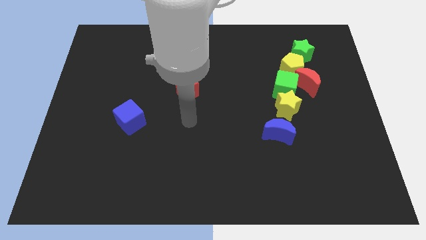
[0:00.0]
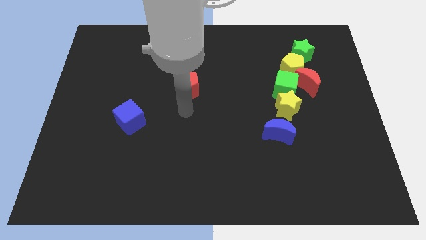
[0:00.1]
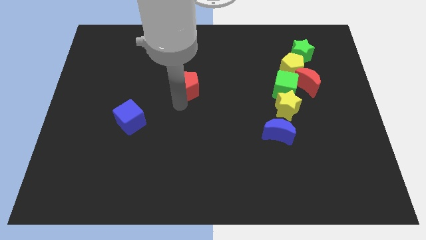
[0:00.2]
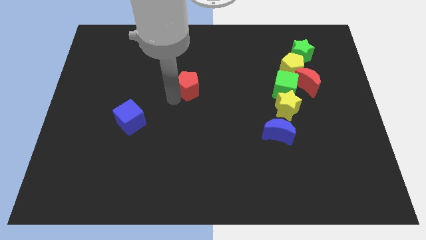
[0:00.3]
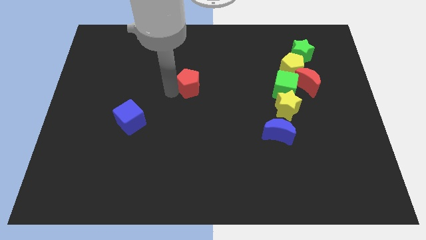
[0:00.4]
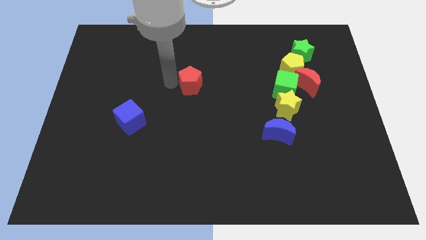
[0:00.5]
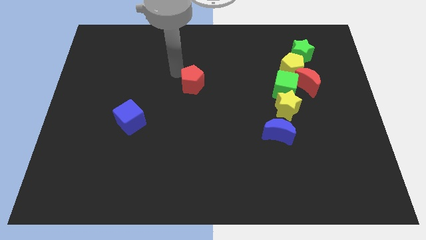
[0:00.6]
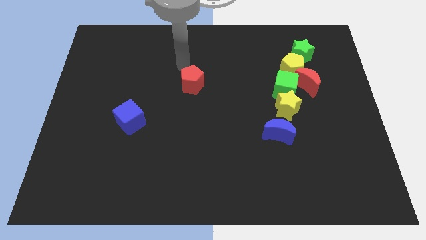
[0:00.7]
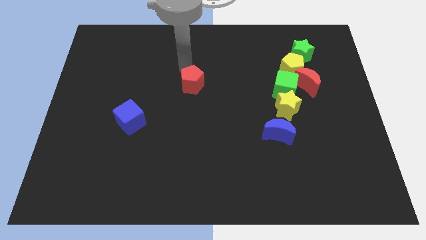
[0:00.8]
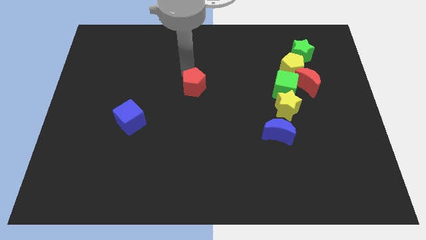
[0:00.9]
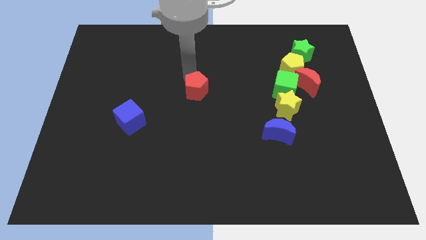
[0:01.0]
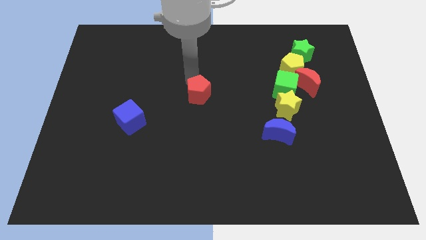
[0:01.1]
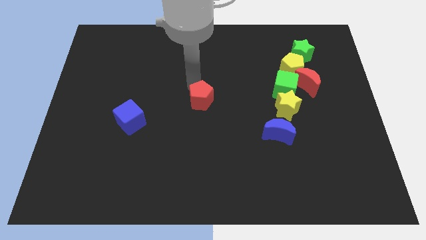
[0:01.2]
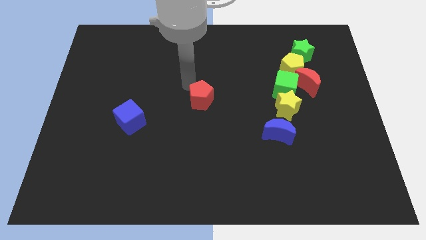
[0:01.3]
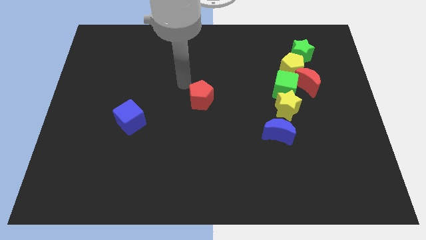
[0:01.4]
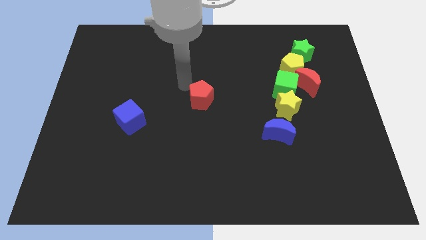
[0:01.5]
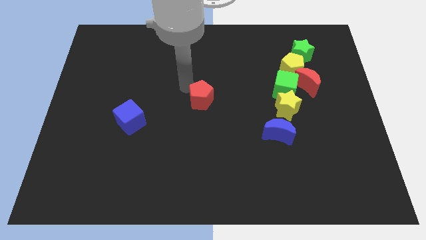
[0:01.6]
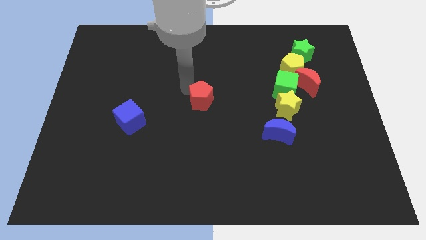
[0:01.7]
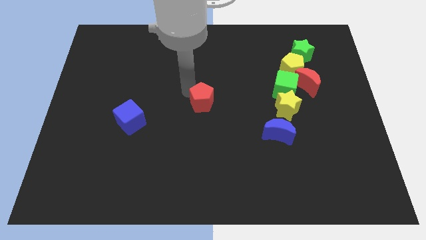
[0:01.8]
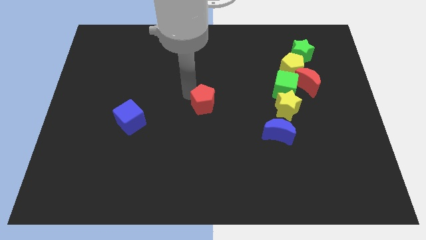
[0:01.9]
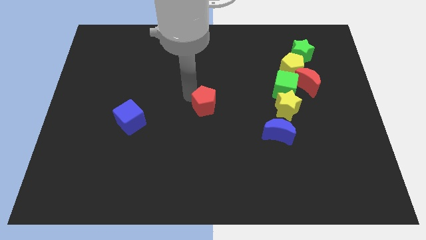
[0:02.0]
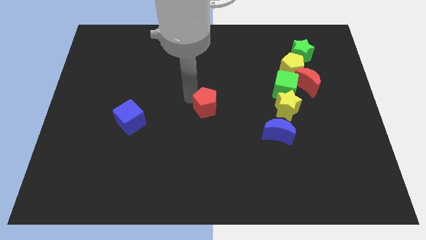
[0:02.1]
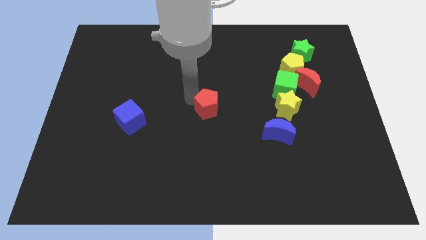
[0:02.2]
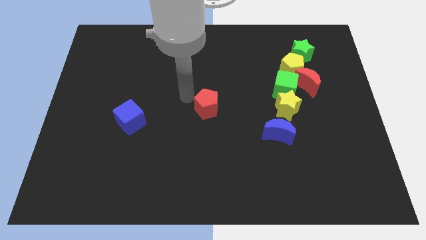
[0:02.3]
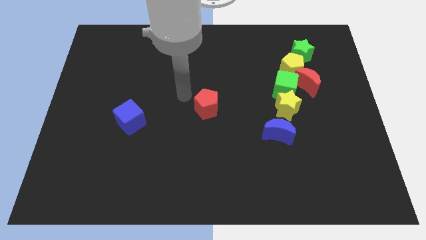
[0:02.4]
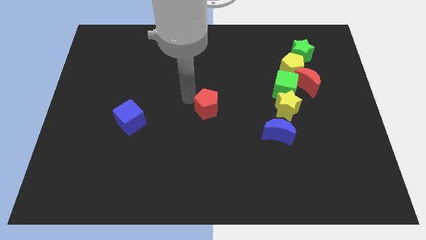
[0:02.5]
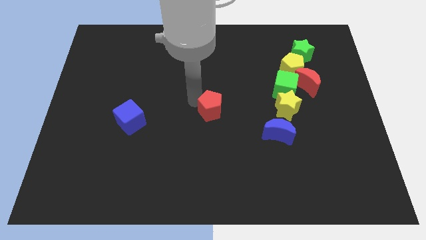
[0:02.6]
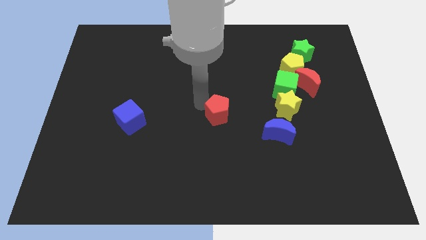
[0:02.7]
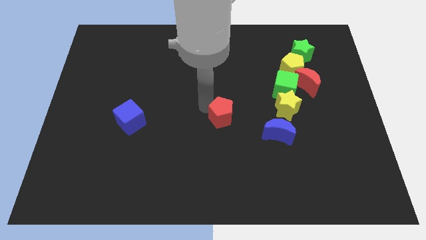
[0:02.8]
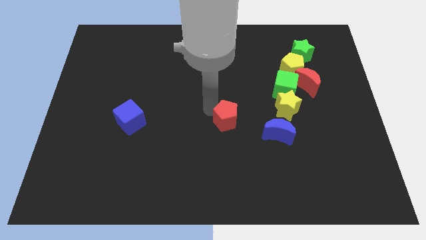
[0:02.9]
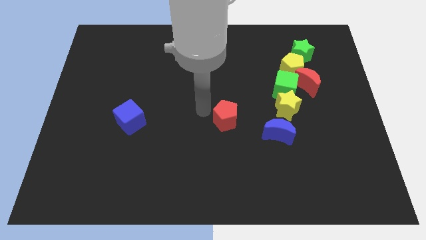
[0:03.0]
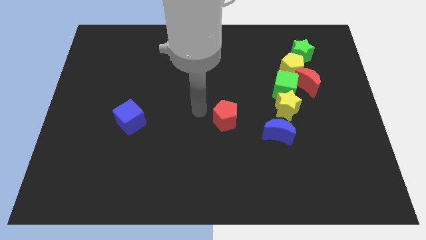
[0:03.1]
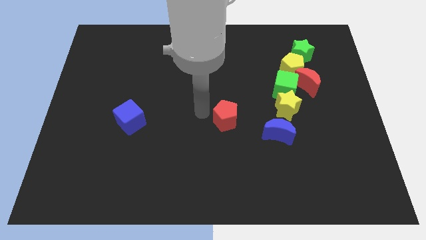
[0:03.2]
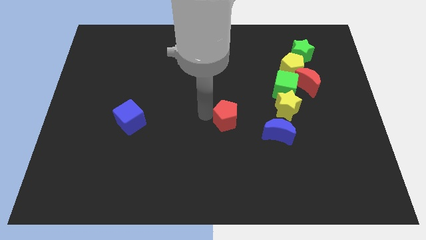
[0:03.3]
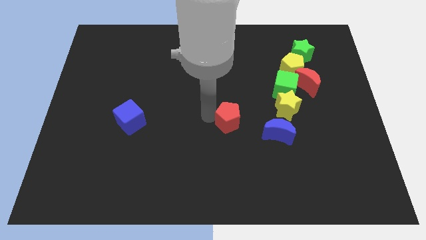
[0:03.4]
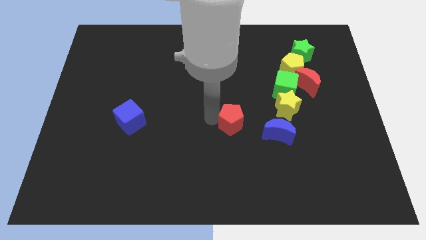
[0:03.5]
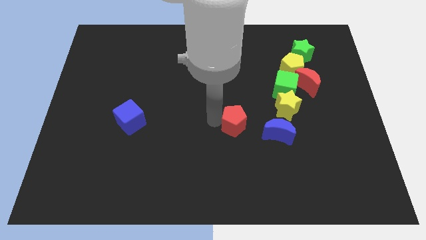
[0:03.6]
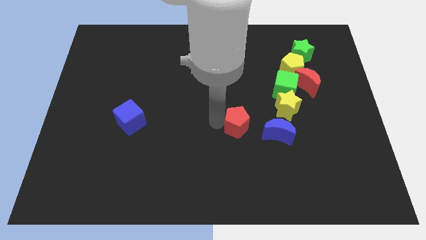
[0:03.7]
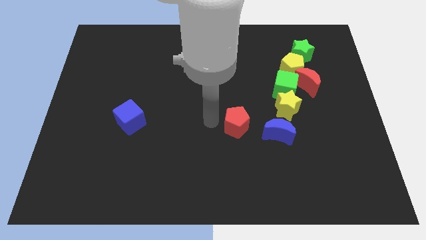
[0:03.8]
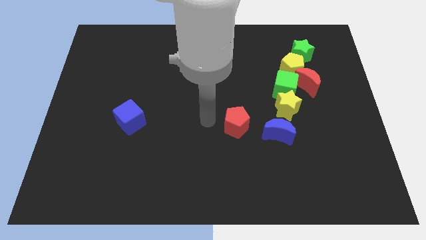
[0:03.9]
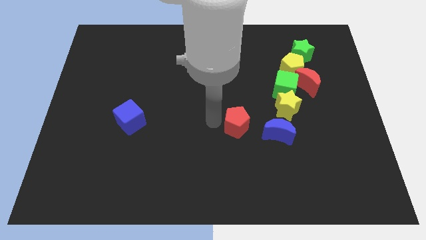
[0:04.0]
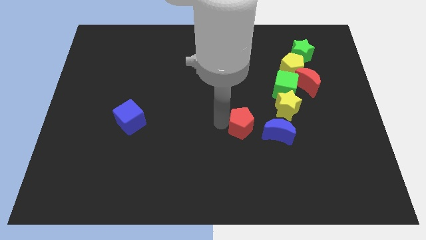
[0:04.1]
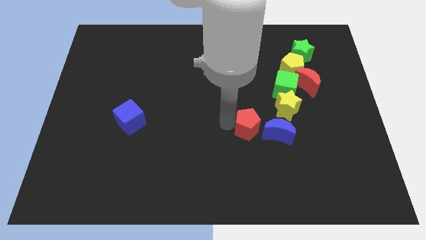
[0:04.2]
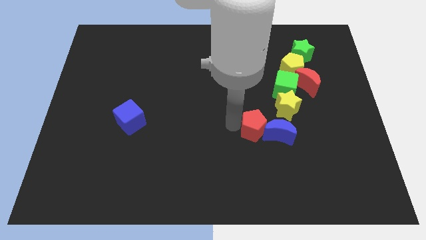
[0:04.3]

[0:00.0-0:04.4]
move the red pentagon next to the blue moon

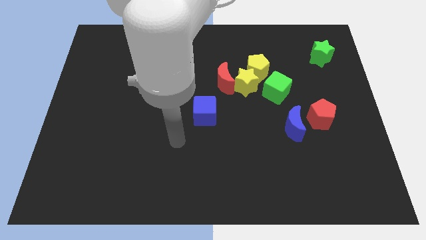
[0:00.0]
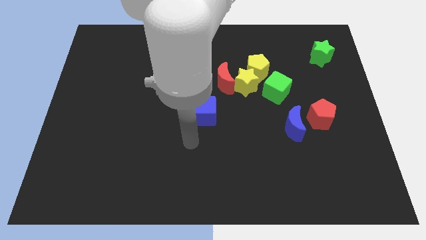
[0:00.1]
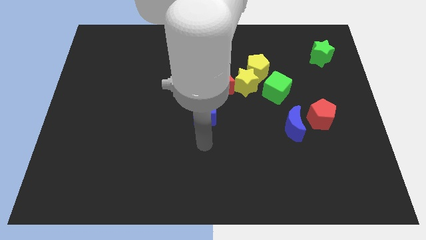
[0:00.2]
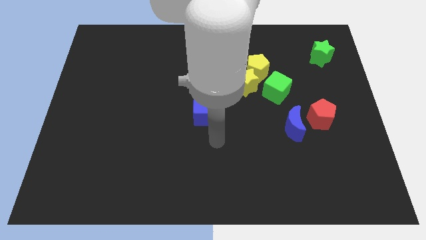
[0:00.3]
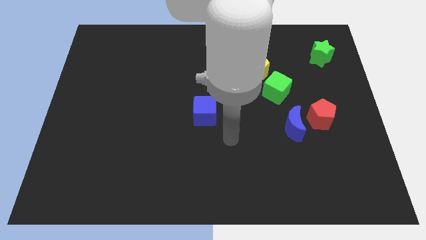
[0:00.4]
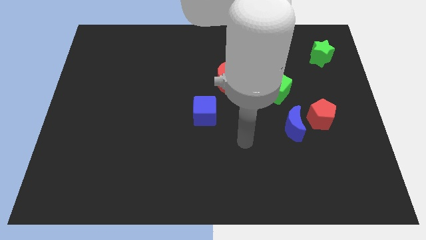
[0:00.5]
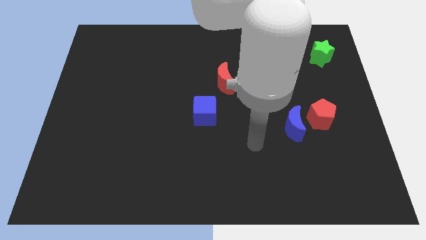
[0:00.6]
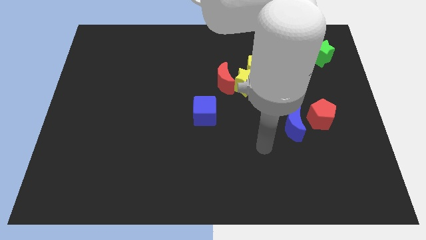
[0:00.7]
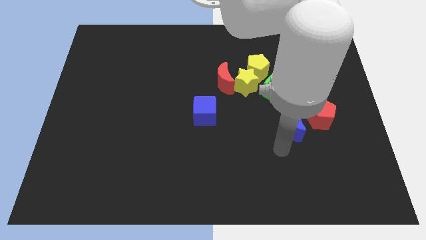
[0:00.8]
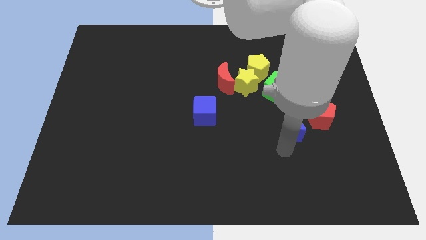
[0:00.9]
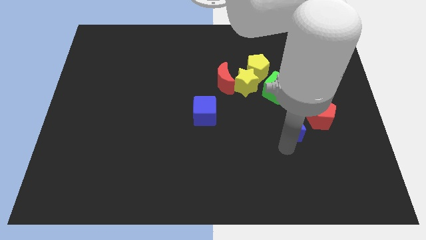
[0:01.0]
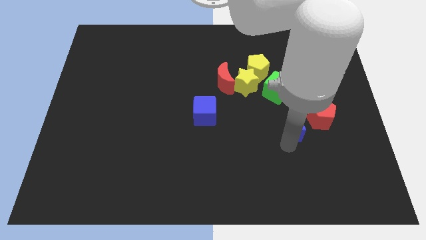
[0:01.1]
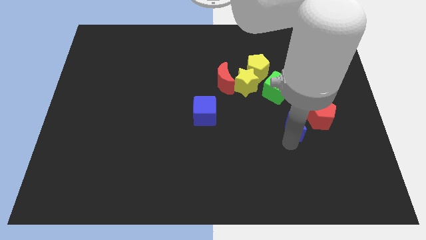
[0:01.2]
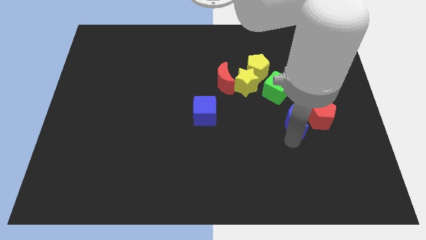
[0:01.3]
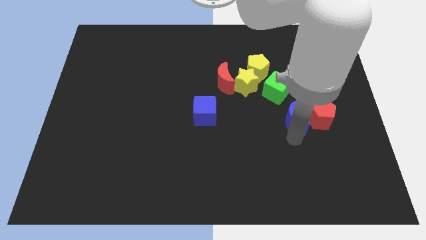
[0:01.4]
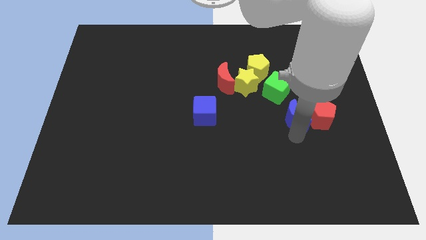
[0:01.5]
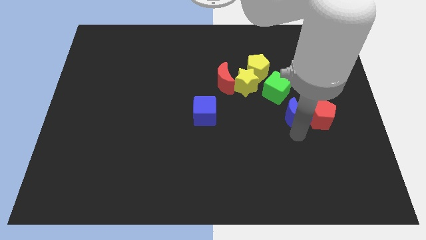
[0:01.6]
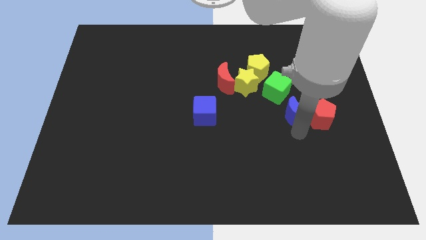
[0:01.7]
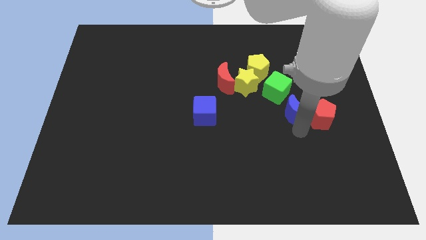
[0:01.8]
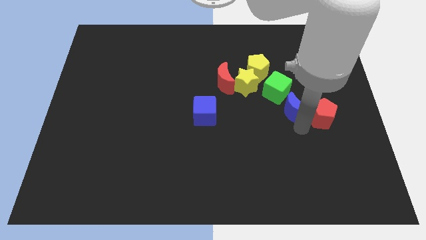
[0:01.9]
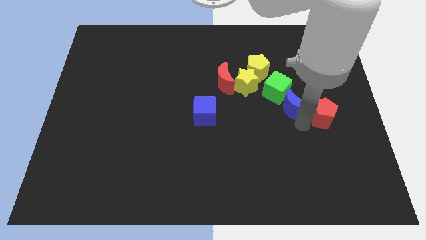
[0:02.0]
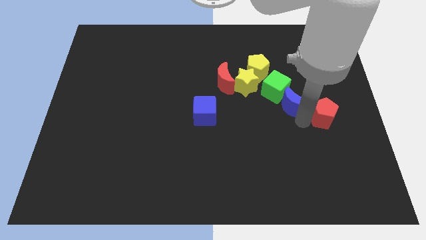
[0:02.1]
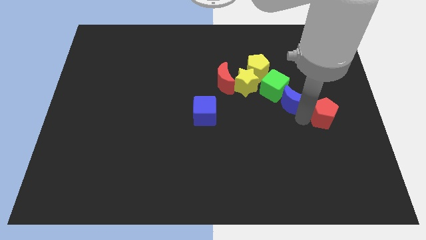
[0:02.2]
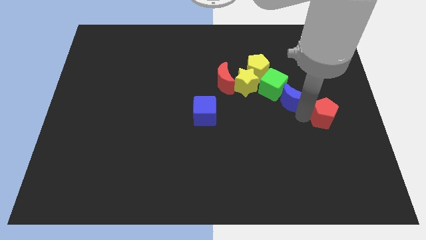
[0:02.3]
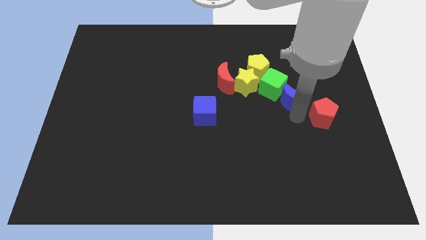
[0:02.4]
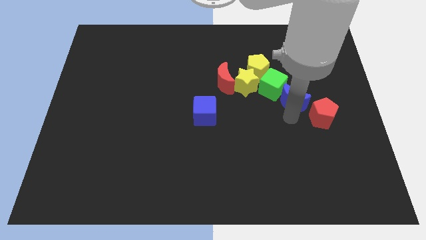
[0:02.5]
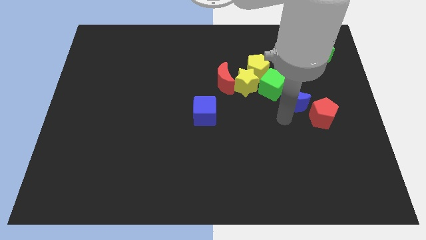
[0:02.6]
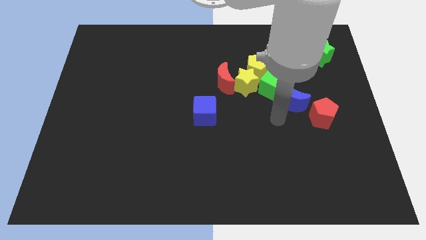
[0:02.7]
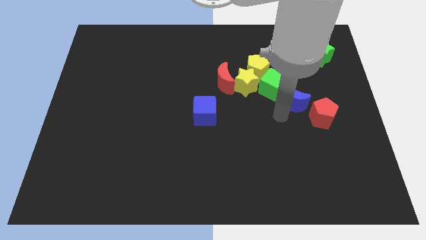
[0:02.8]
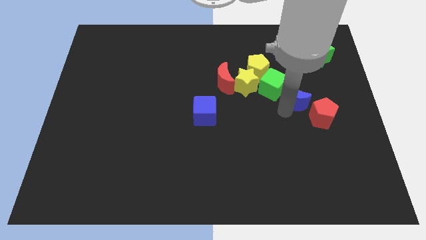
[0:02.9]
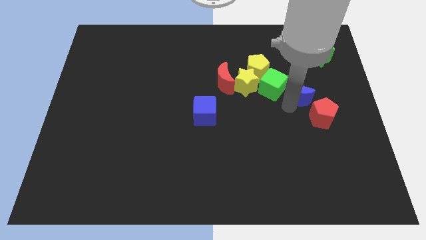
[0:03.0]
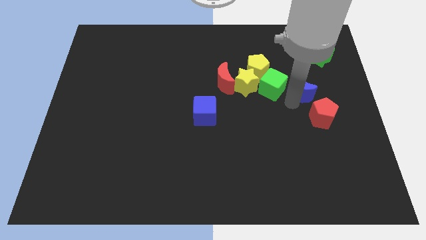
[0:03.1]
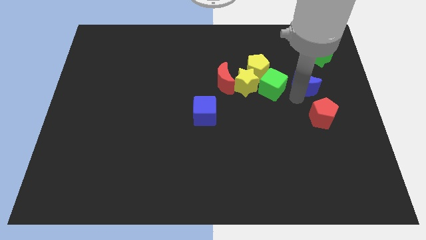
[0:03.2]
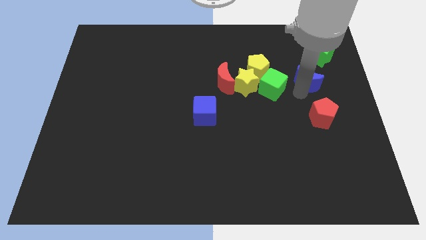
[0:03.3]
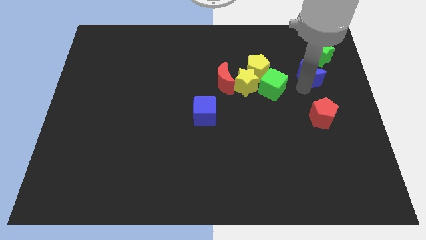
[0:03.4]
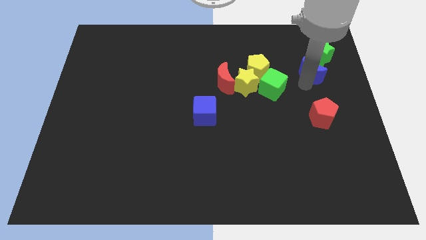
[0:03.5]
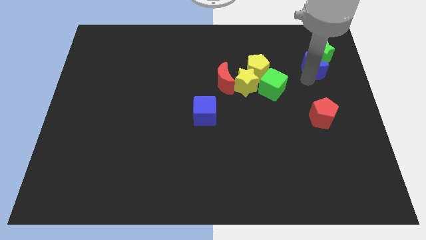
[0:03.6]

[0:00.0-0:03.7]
push the blue moon next to the green star
